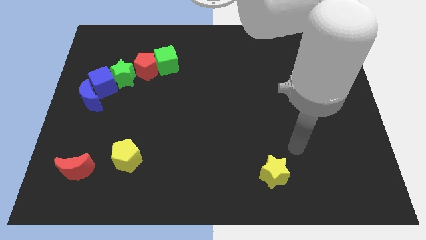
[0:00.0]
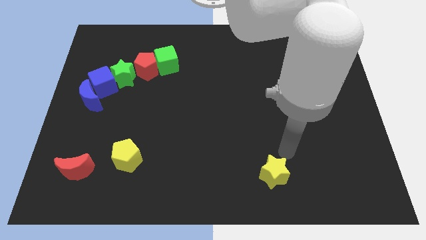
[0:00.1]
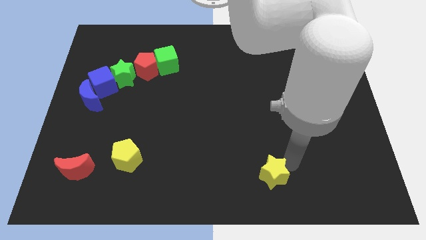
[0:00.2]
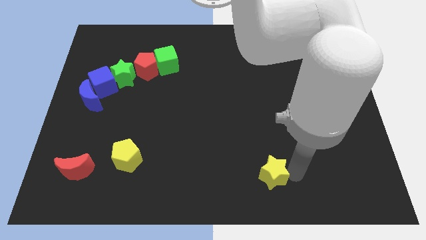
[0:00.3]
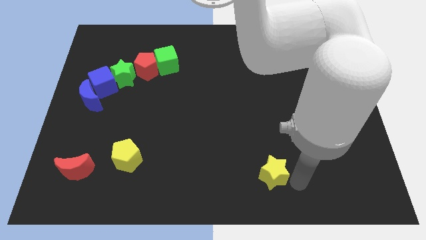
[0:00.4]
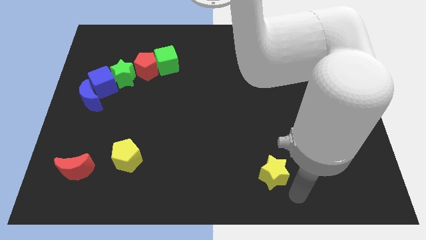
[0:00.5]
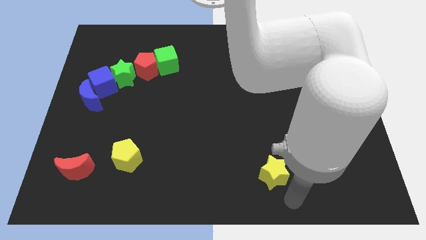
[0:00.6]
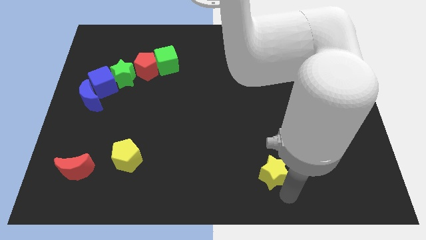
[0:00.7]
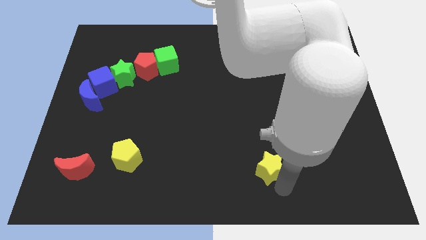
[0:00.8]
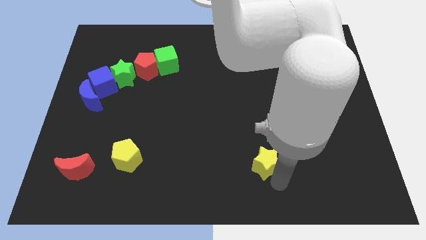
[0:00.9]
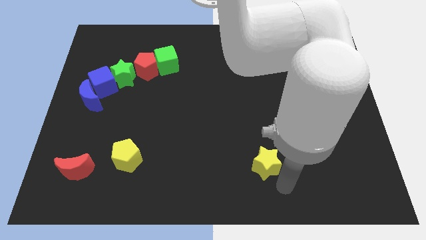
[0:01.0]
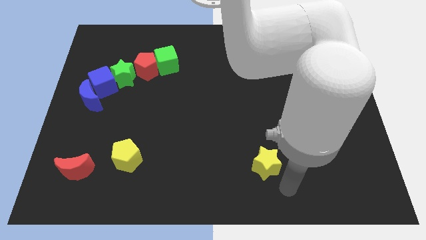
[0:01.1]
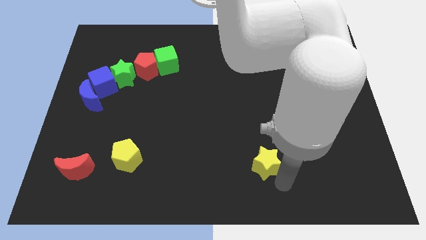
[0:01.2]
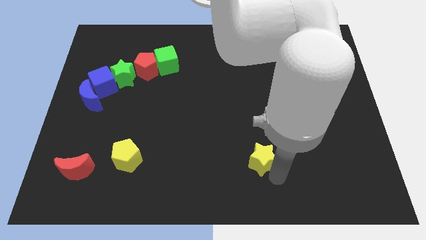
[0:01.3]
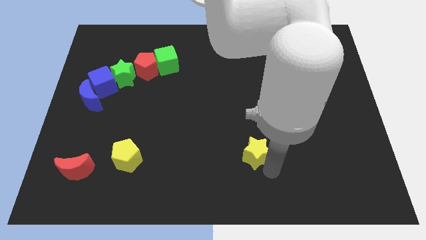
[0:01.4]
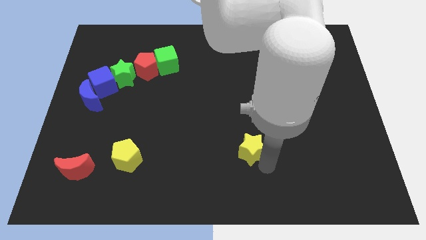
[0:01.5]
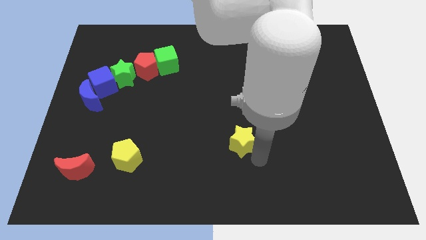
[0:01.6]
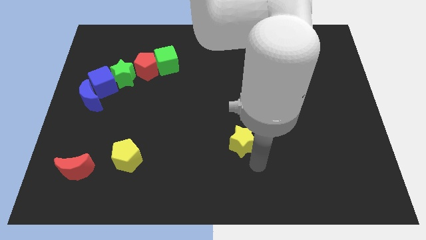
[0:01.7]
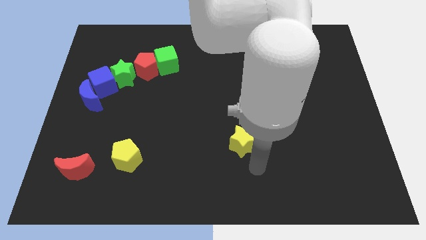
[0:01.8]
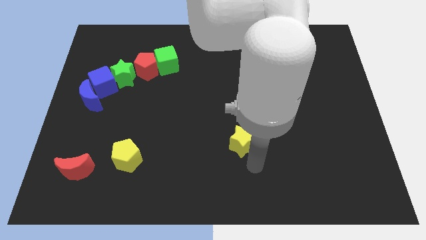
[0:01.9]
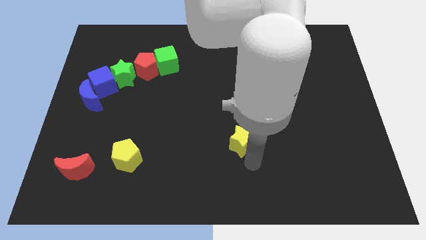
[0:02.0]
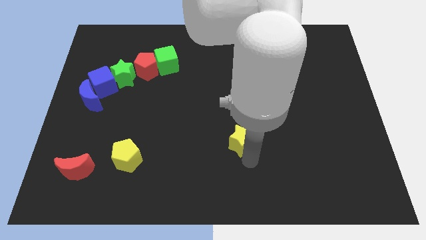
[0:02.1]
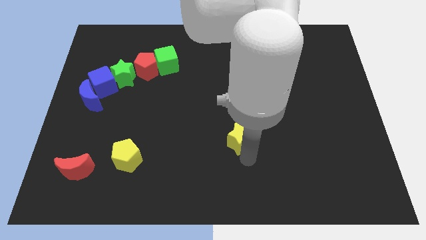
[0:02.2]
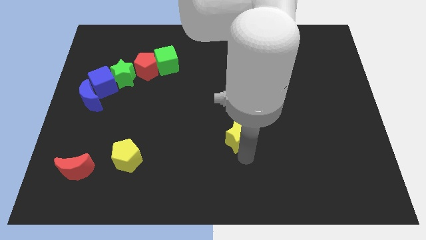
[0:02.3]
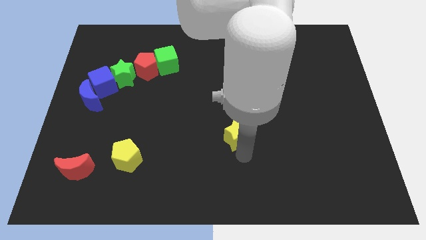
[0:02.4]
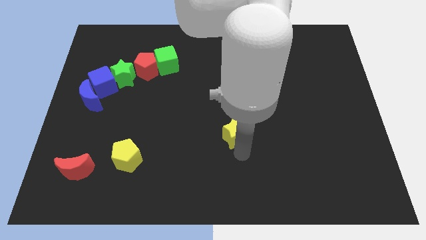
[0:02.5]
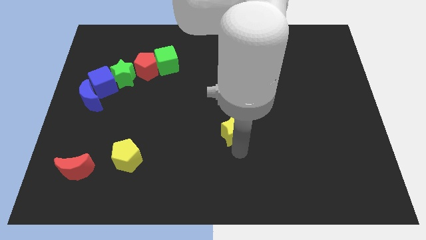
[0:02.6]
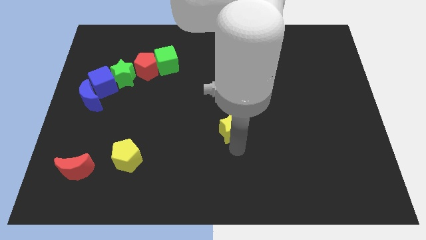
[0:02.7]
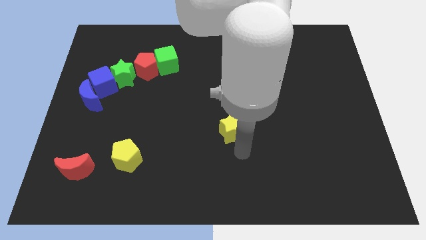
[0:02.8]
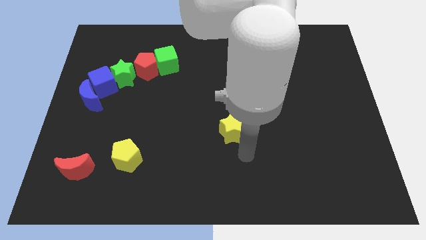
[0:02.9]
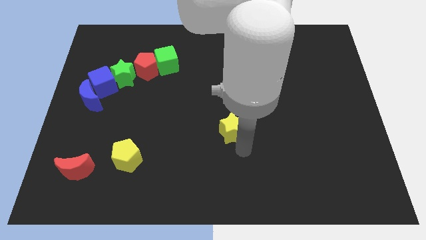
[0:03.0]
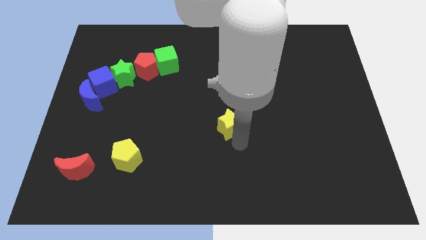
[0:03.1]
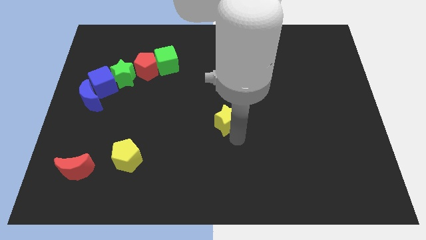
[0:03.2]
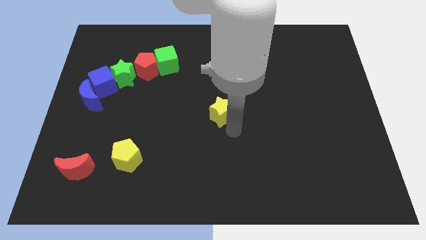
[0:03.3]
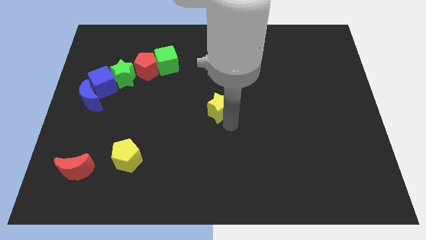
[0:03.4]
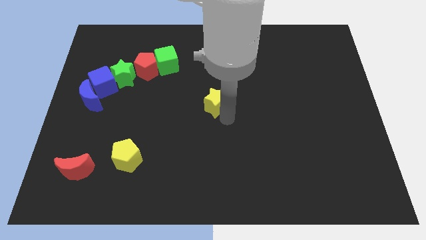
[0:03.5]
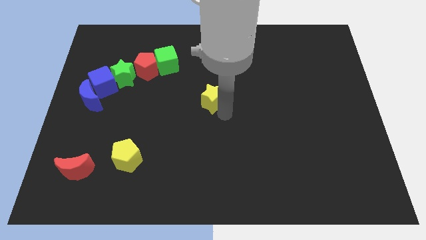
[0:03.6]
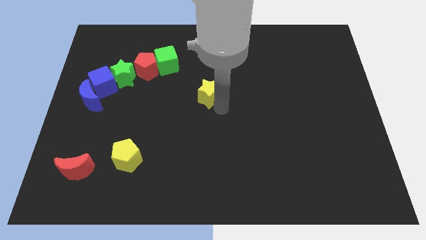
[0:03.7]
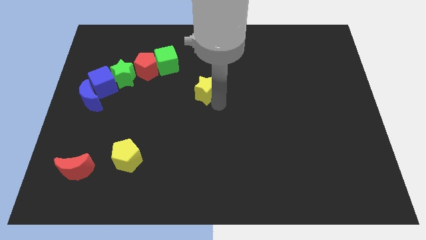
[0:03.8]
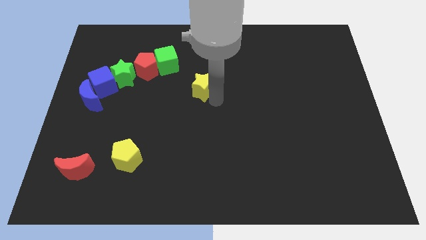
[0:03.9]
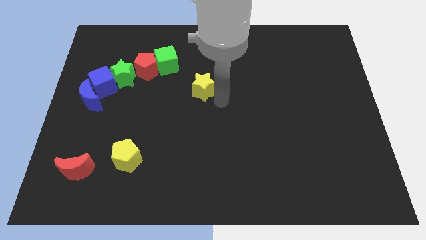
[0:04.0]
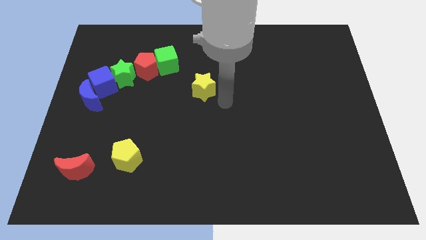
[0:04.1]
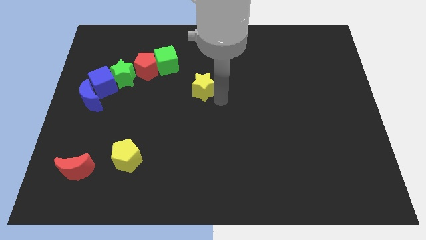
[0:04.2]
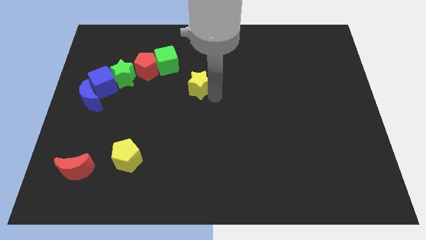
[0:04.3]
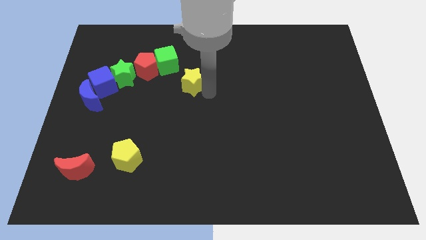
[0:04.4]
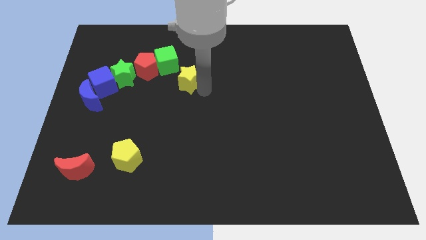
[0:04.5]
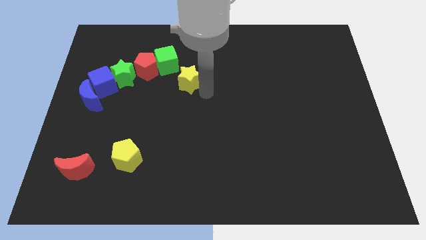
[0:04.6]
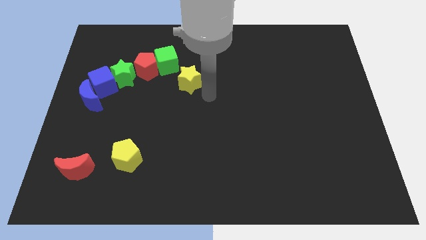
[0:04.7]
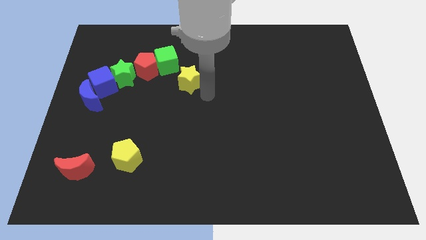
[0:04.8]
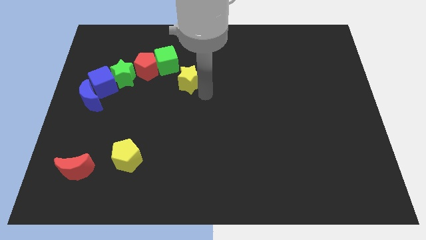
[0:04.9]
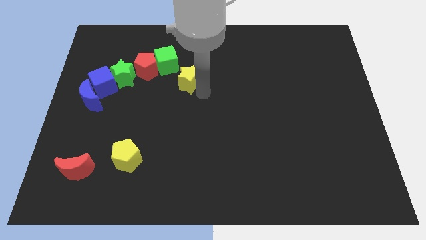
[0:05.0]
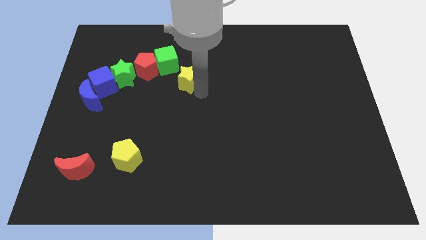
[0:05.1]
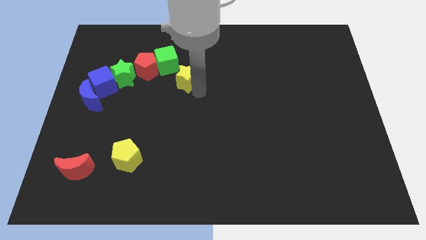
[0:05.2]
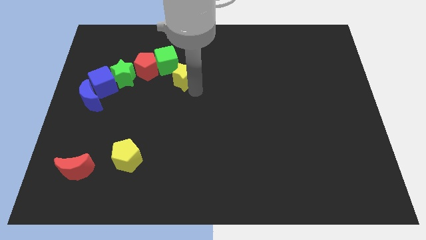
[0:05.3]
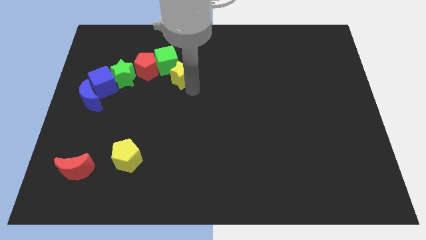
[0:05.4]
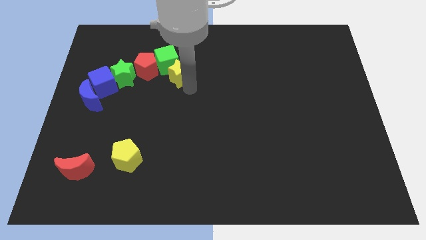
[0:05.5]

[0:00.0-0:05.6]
put the yellow star next to the green cube

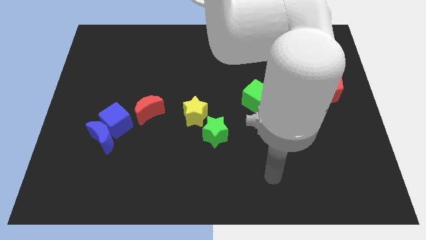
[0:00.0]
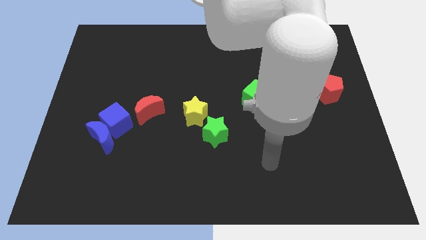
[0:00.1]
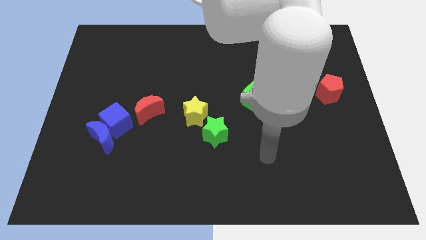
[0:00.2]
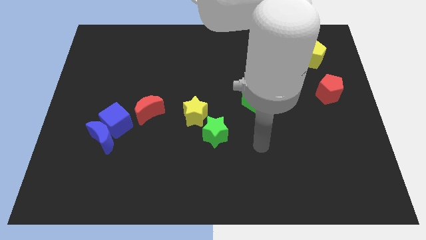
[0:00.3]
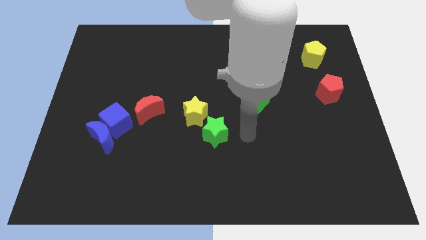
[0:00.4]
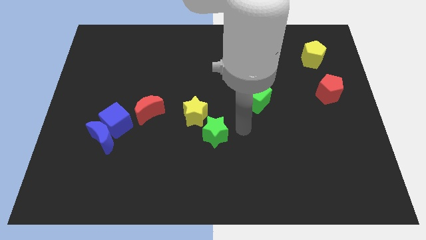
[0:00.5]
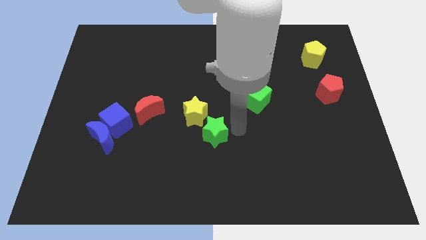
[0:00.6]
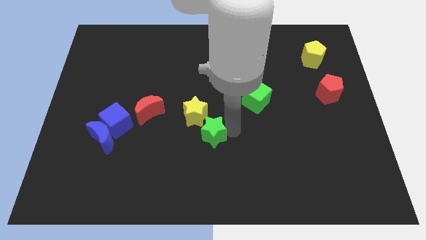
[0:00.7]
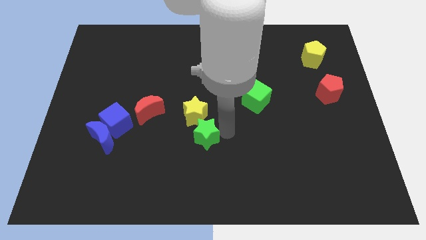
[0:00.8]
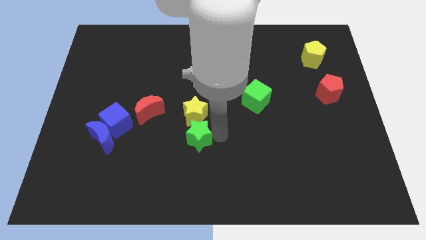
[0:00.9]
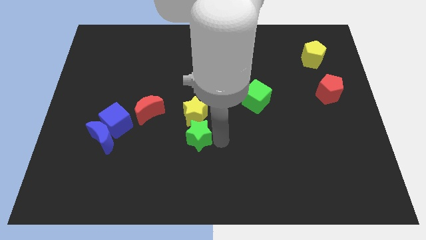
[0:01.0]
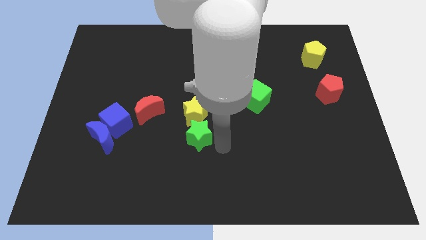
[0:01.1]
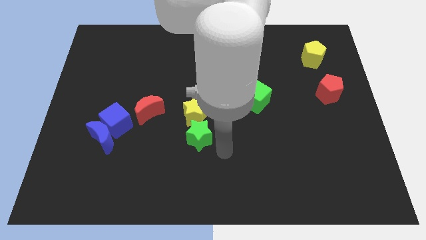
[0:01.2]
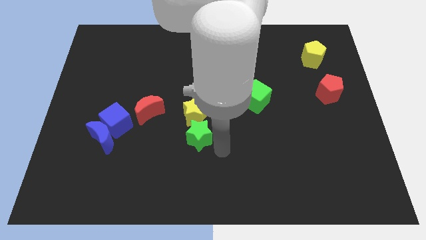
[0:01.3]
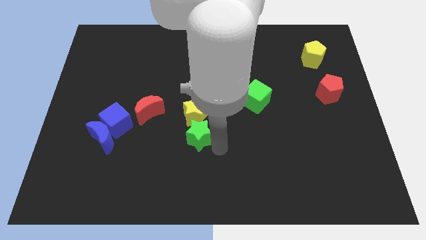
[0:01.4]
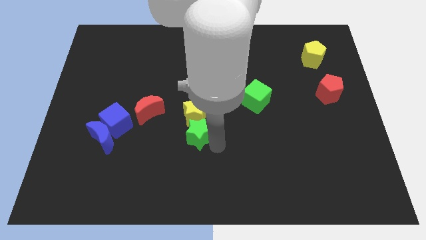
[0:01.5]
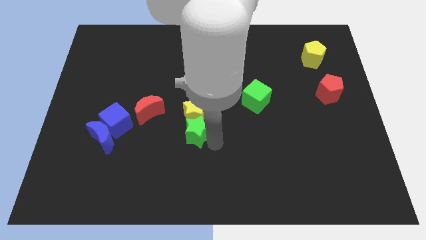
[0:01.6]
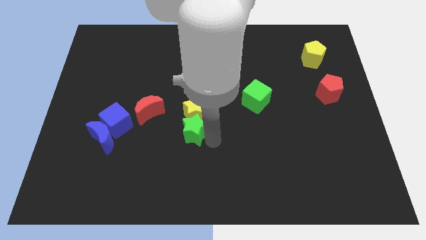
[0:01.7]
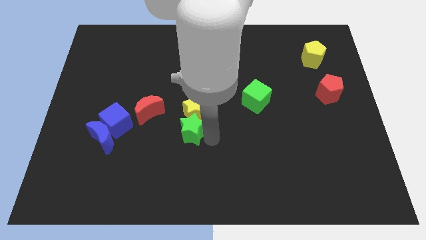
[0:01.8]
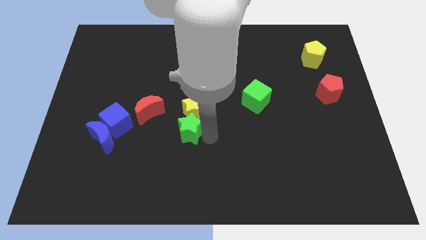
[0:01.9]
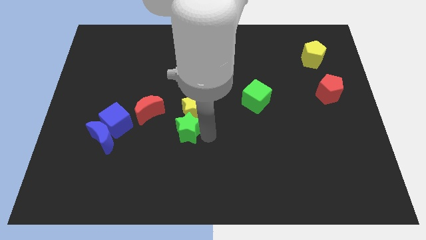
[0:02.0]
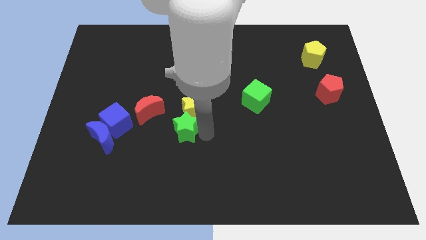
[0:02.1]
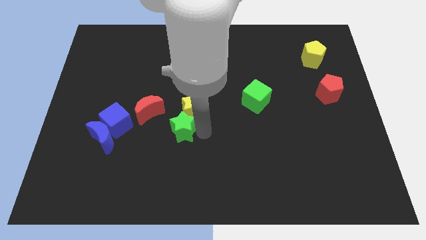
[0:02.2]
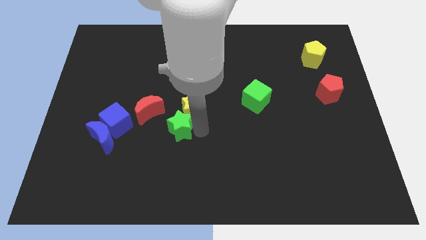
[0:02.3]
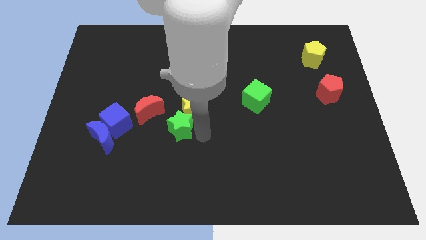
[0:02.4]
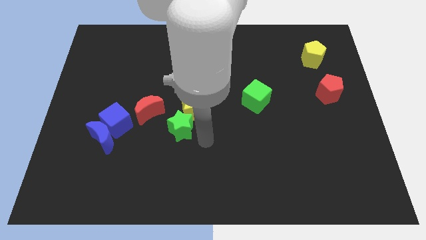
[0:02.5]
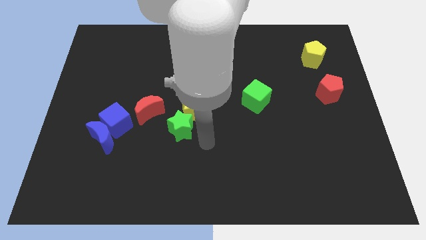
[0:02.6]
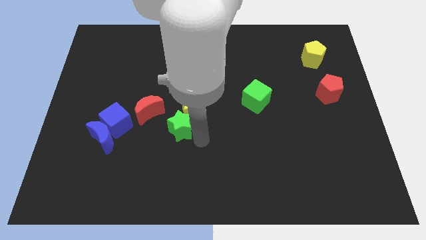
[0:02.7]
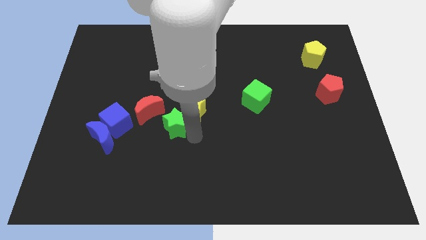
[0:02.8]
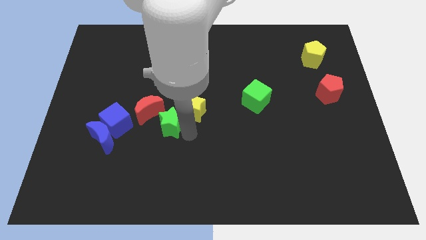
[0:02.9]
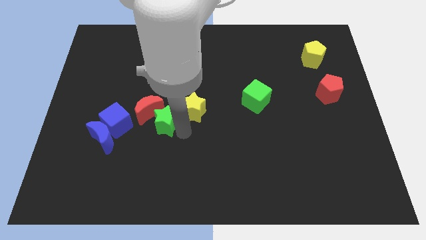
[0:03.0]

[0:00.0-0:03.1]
slide the green star close to the red moon
